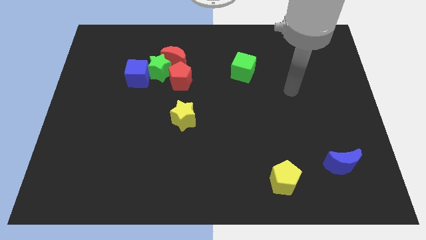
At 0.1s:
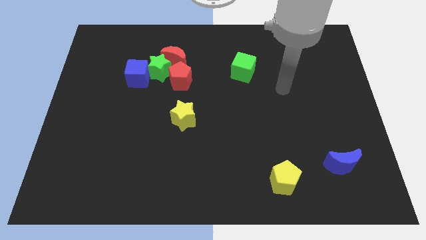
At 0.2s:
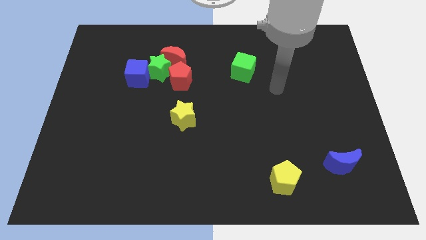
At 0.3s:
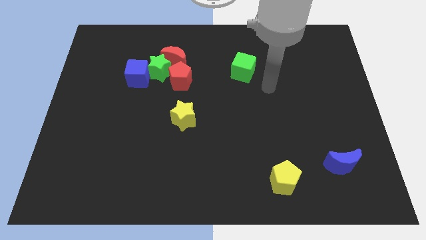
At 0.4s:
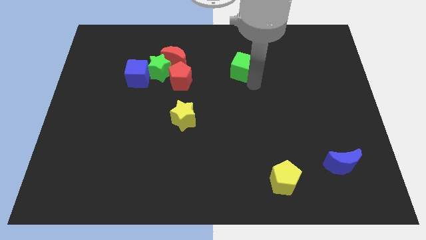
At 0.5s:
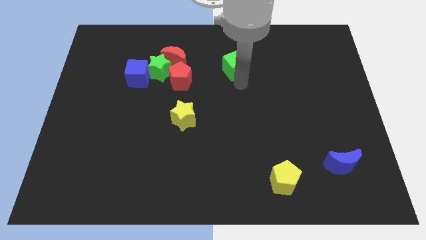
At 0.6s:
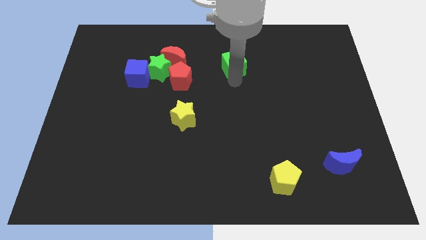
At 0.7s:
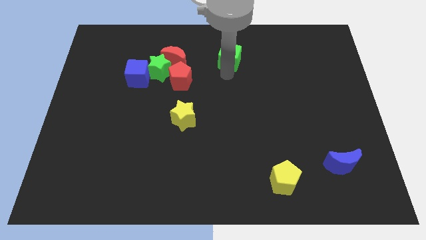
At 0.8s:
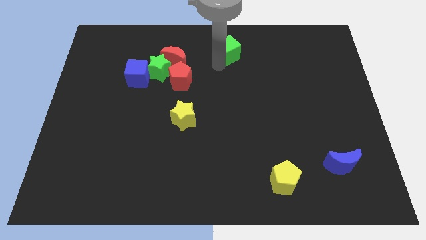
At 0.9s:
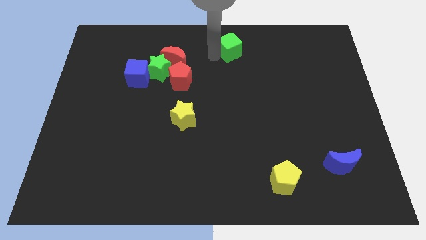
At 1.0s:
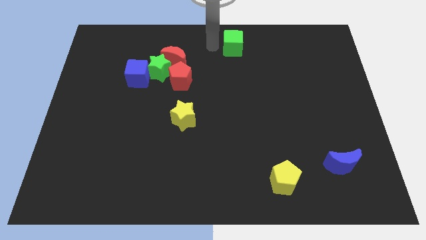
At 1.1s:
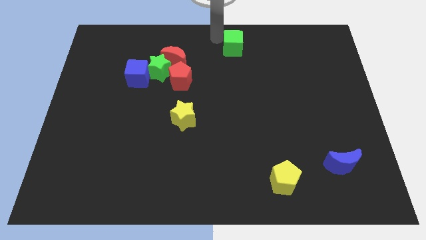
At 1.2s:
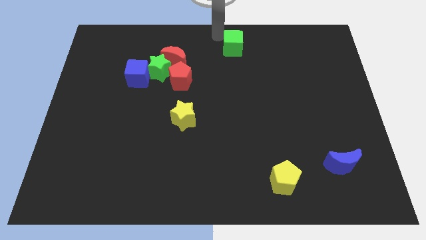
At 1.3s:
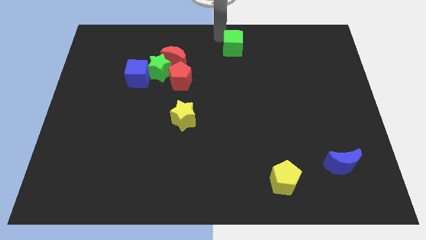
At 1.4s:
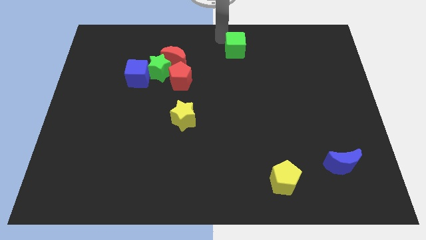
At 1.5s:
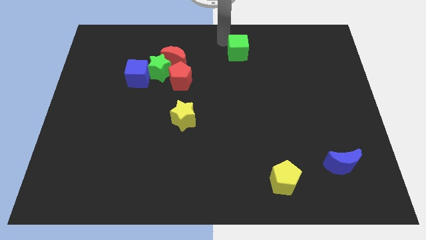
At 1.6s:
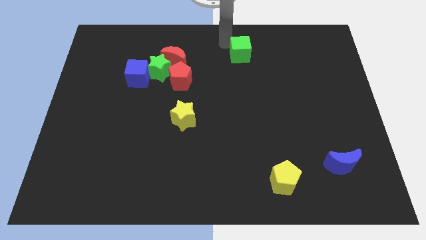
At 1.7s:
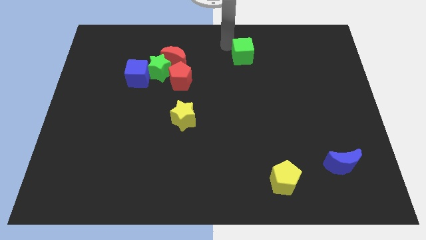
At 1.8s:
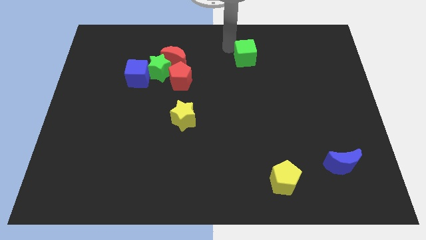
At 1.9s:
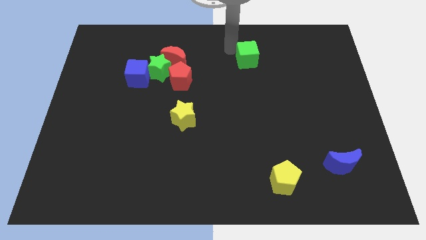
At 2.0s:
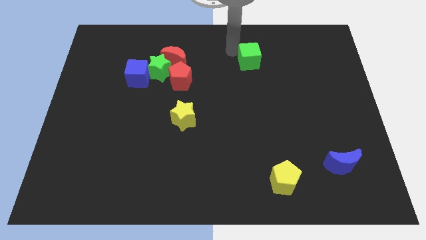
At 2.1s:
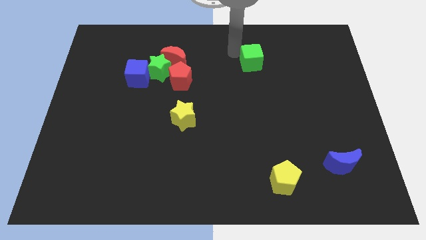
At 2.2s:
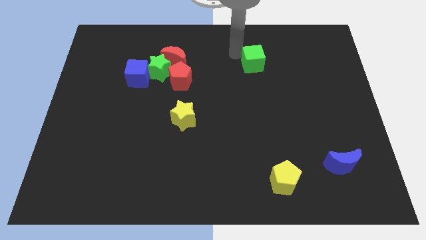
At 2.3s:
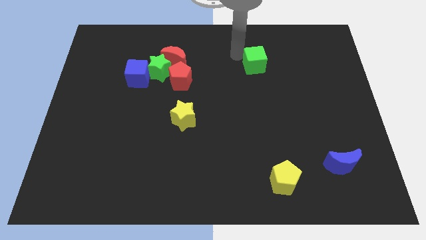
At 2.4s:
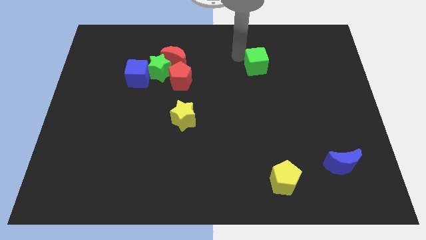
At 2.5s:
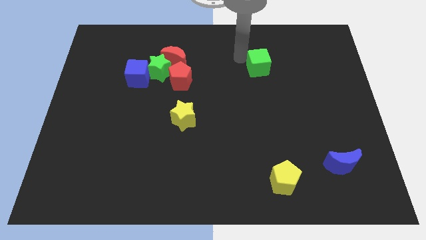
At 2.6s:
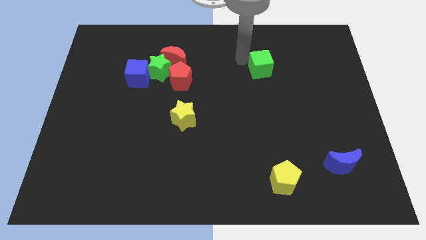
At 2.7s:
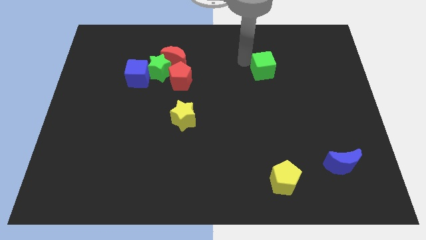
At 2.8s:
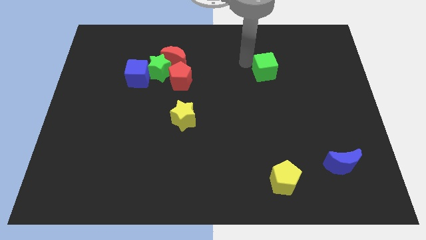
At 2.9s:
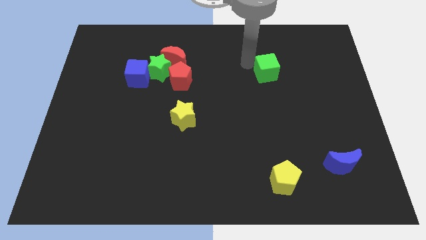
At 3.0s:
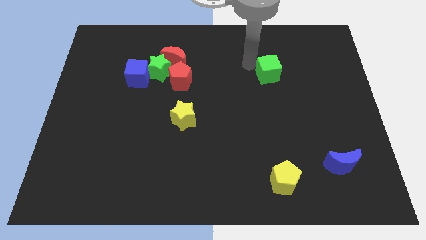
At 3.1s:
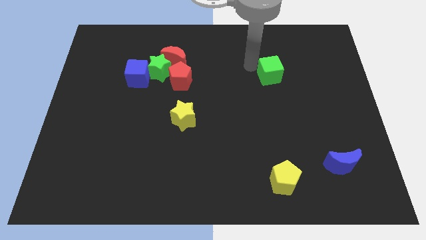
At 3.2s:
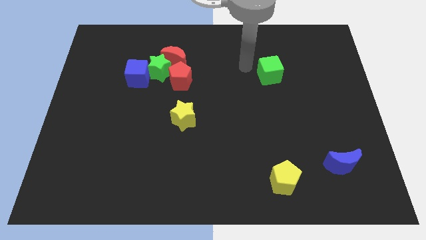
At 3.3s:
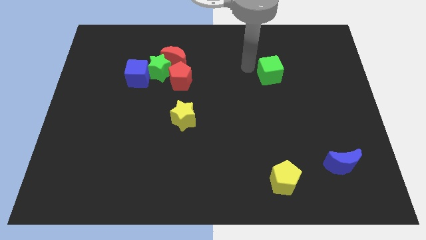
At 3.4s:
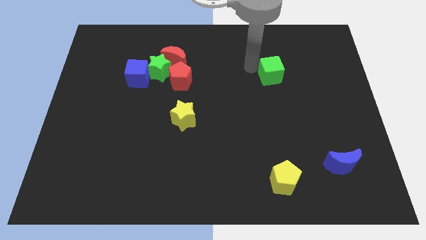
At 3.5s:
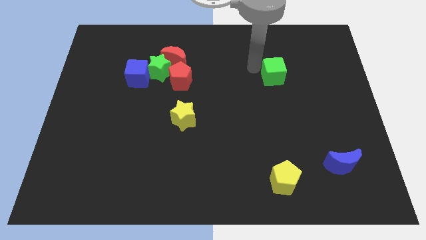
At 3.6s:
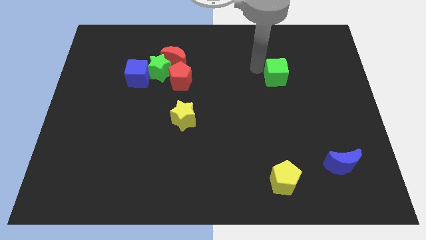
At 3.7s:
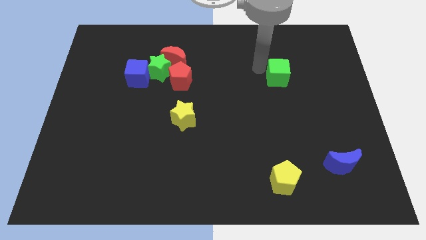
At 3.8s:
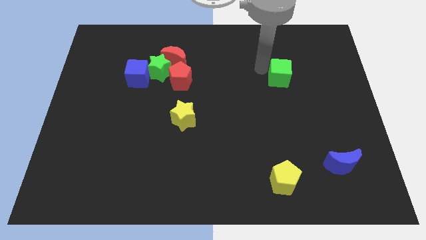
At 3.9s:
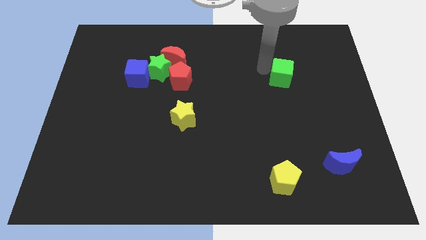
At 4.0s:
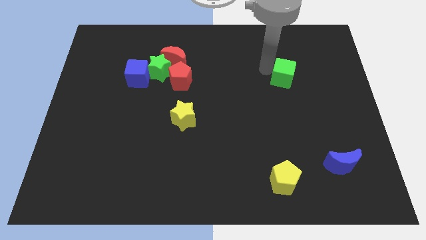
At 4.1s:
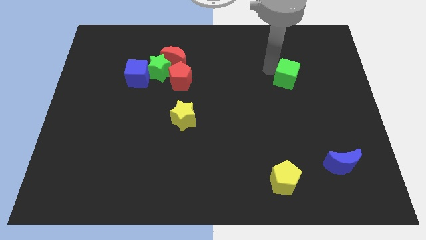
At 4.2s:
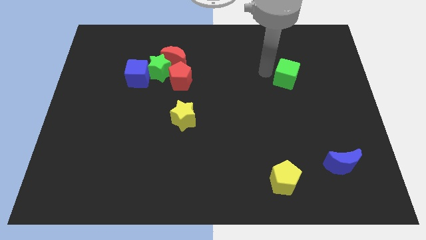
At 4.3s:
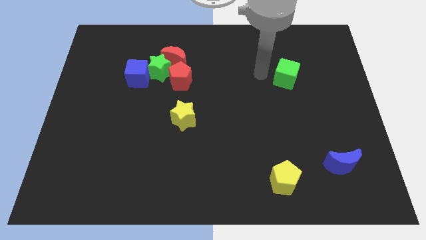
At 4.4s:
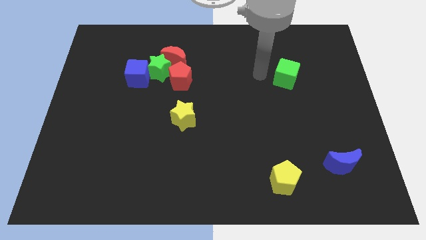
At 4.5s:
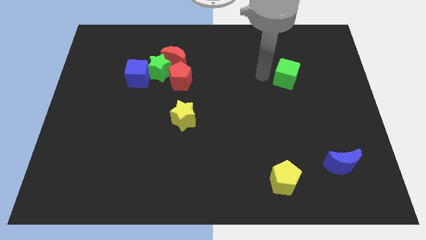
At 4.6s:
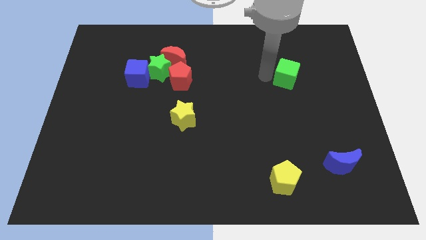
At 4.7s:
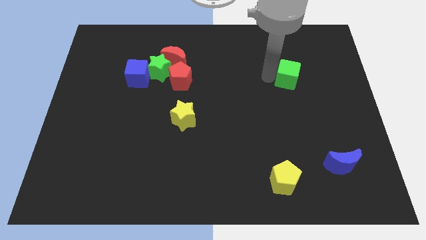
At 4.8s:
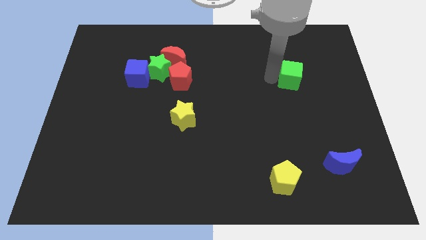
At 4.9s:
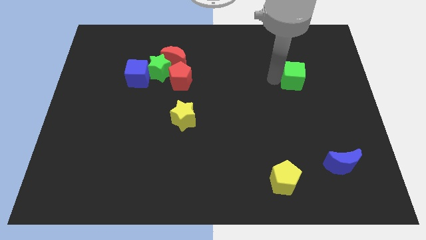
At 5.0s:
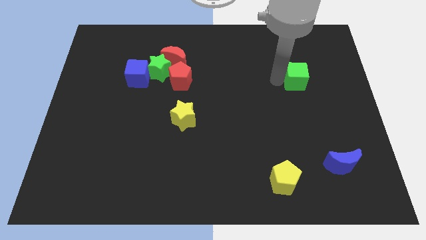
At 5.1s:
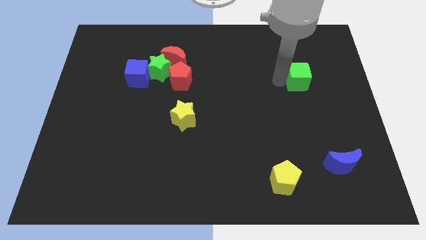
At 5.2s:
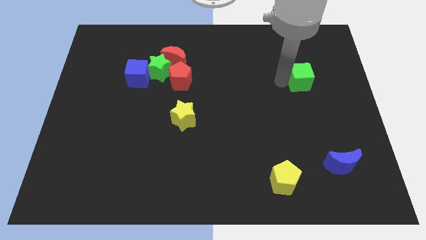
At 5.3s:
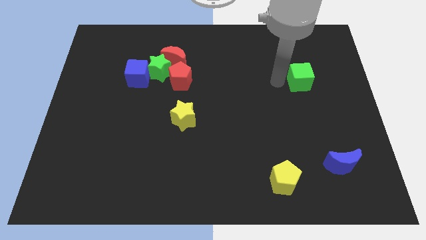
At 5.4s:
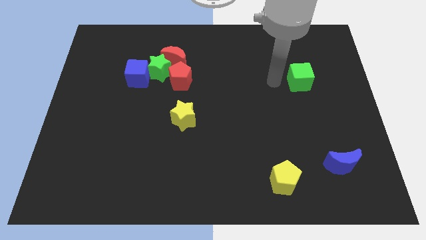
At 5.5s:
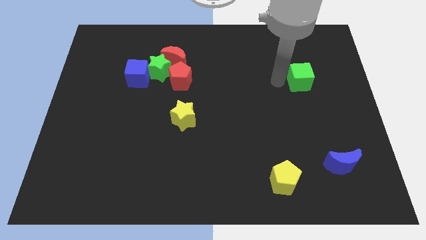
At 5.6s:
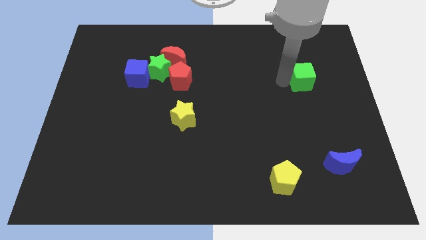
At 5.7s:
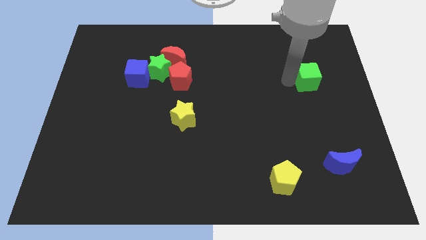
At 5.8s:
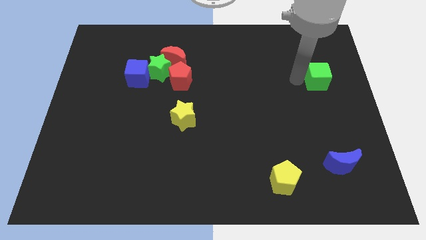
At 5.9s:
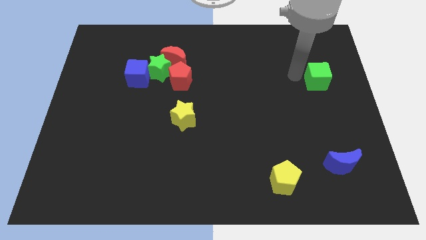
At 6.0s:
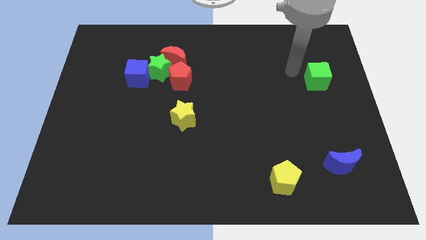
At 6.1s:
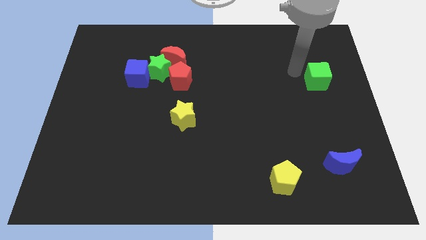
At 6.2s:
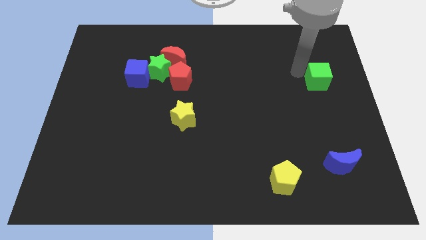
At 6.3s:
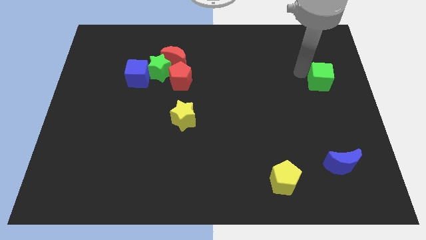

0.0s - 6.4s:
slide the green cube to the right side

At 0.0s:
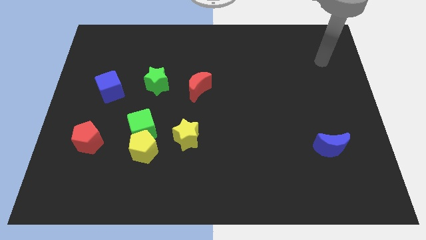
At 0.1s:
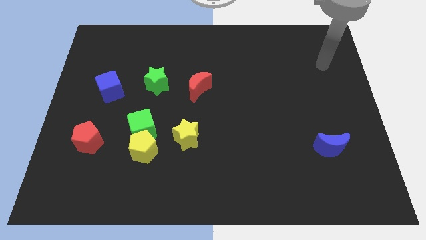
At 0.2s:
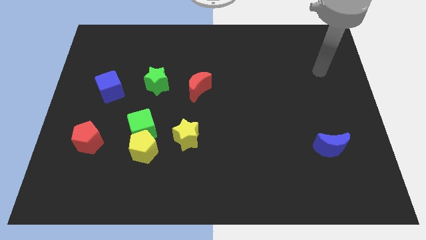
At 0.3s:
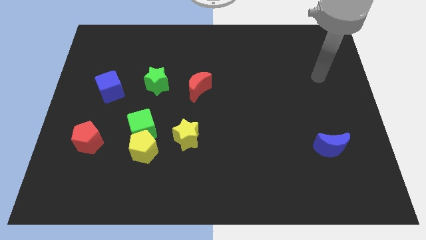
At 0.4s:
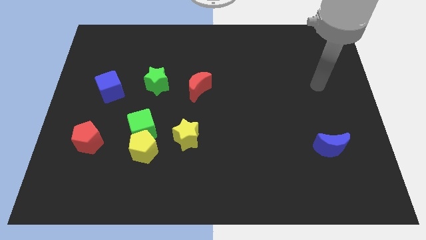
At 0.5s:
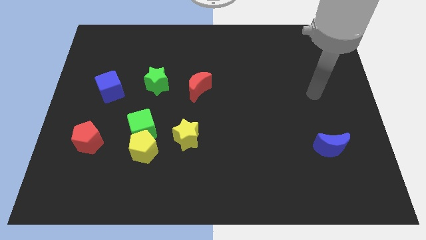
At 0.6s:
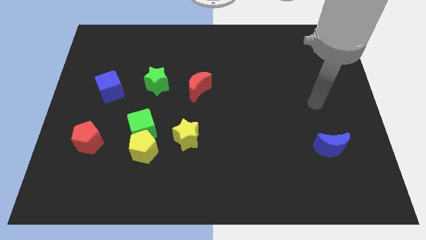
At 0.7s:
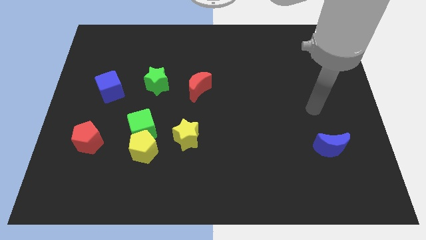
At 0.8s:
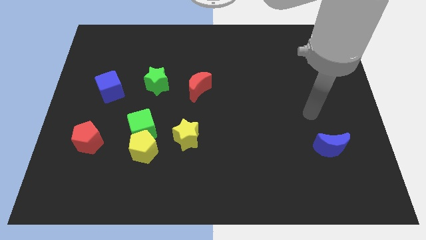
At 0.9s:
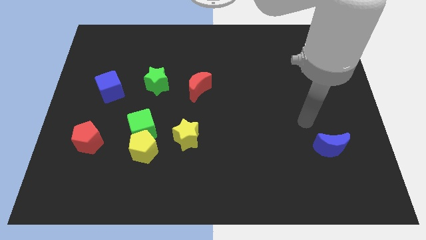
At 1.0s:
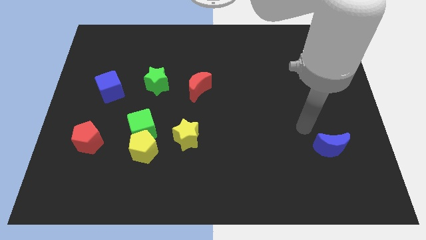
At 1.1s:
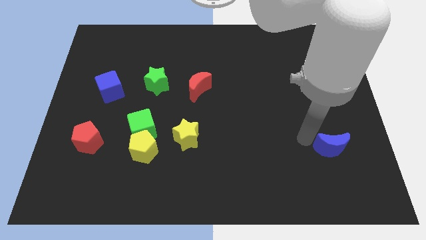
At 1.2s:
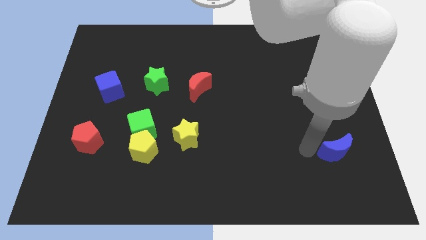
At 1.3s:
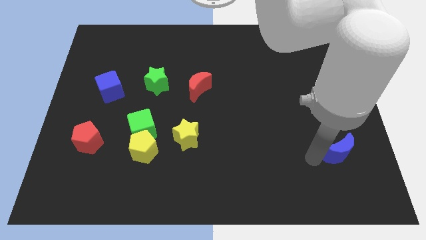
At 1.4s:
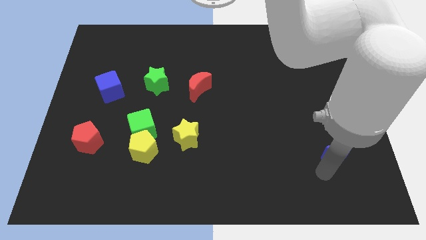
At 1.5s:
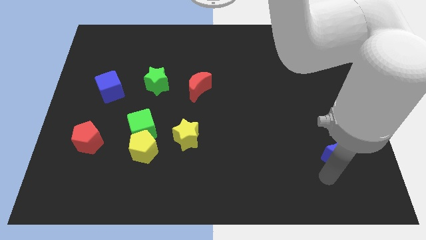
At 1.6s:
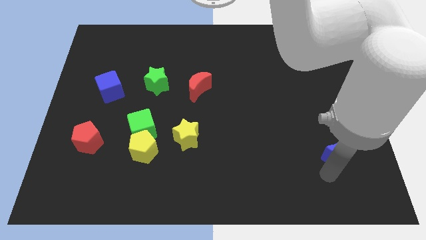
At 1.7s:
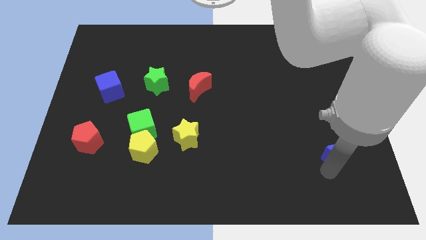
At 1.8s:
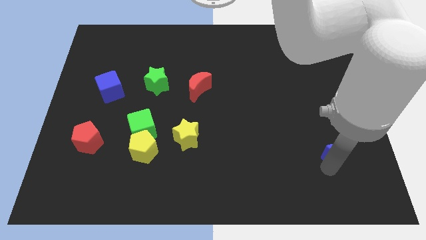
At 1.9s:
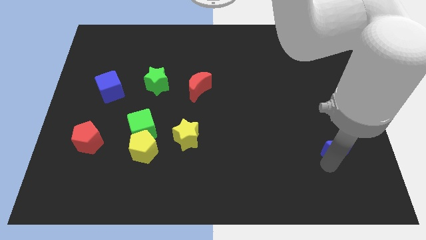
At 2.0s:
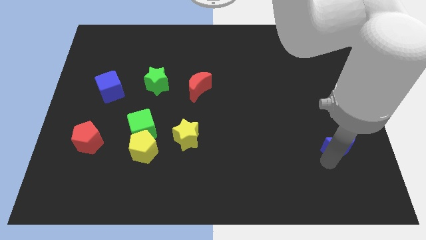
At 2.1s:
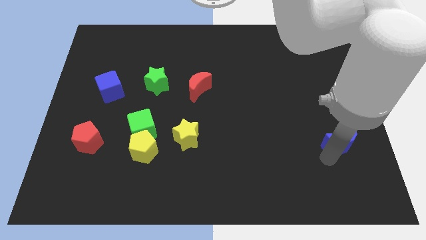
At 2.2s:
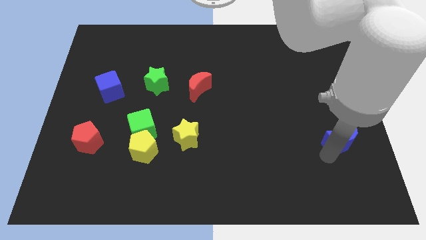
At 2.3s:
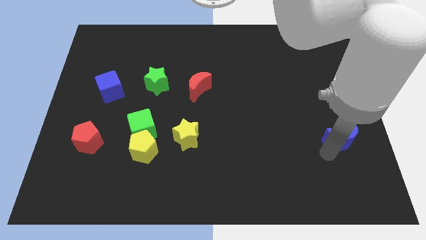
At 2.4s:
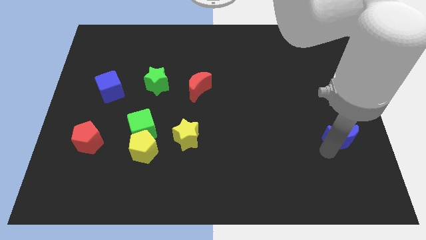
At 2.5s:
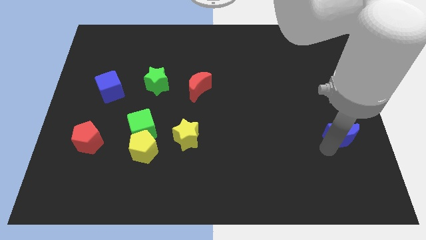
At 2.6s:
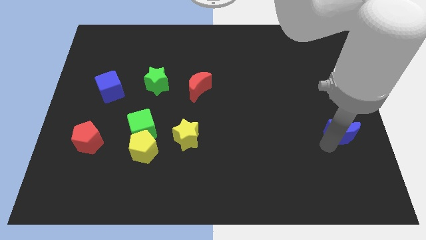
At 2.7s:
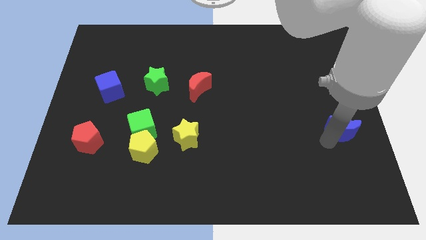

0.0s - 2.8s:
slide the blue moon to the right side
